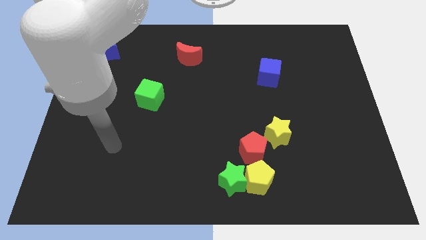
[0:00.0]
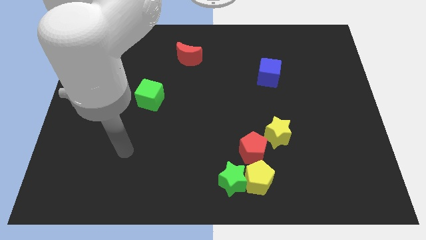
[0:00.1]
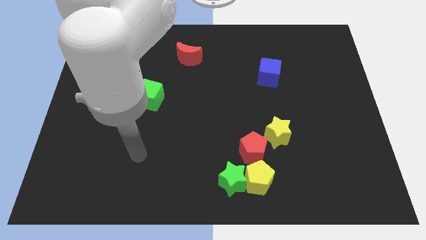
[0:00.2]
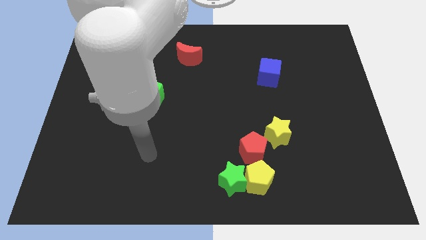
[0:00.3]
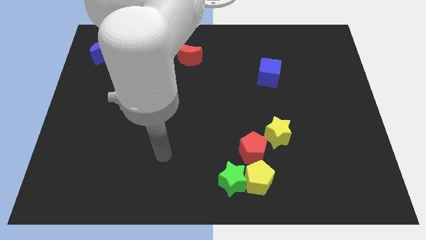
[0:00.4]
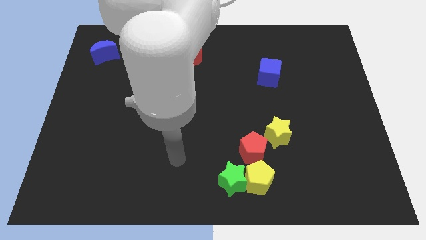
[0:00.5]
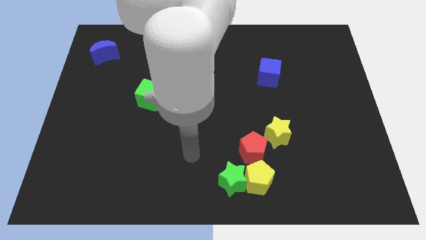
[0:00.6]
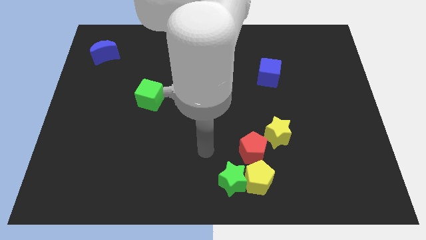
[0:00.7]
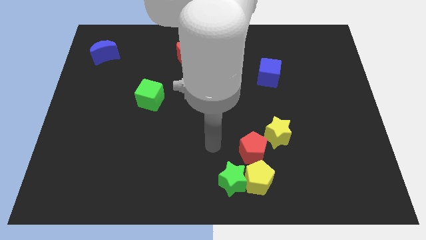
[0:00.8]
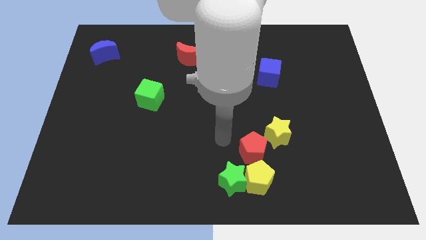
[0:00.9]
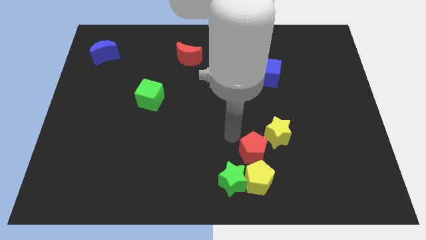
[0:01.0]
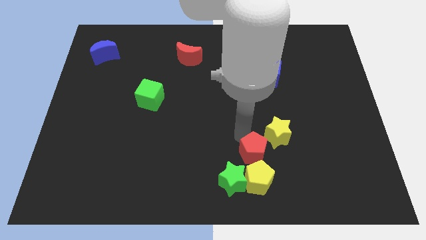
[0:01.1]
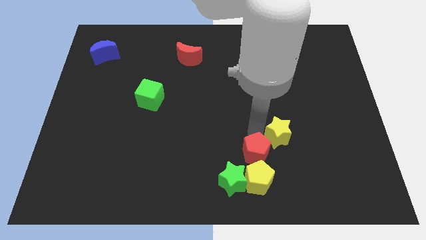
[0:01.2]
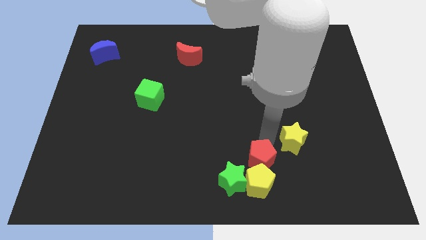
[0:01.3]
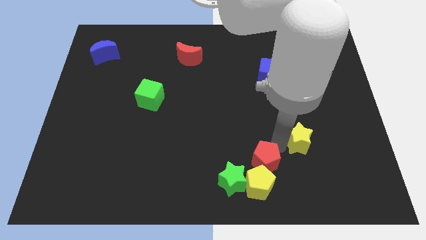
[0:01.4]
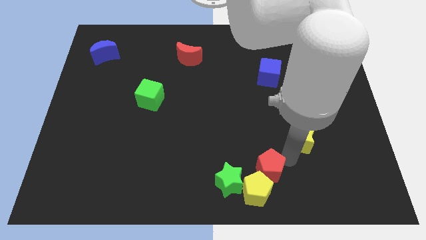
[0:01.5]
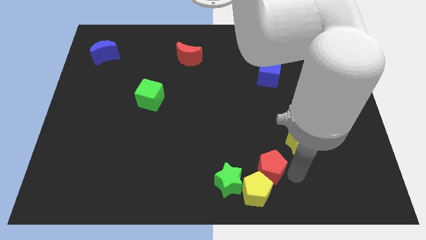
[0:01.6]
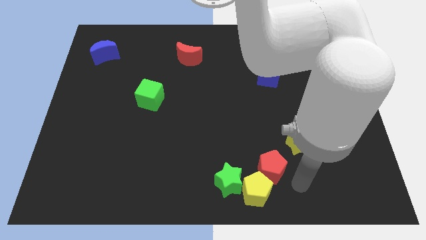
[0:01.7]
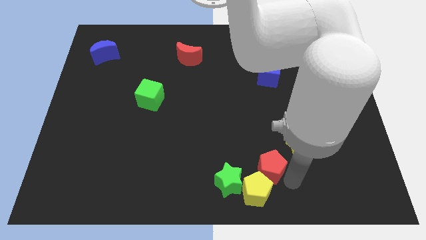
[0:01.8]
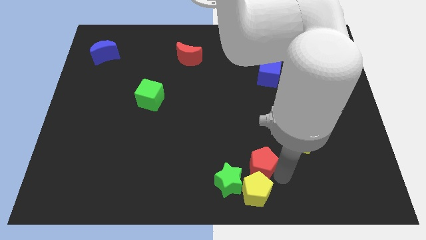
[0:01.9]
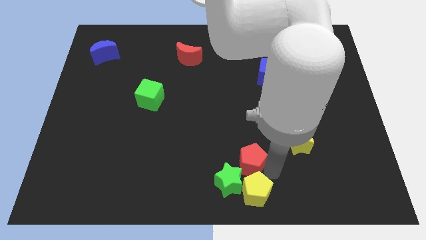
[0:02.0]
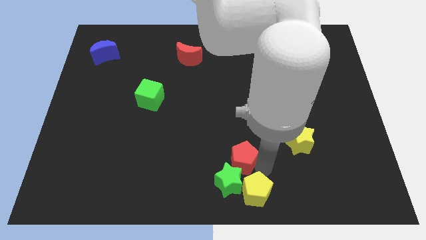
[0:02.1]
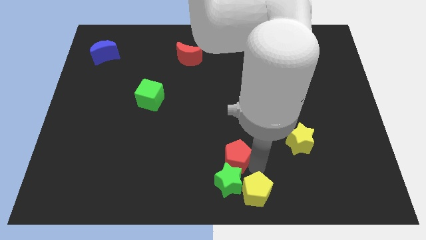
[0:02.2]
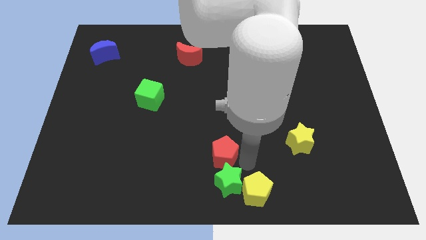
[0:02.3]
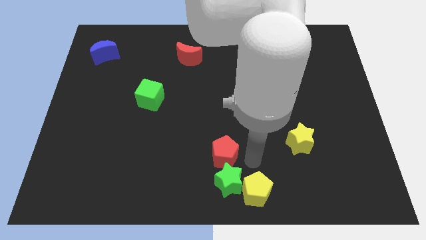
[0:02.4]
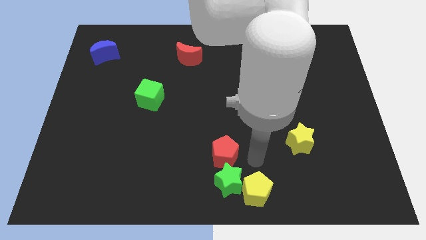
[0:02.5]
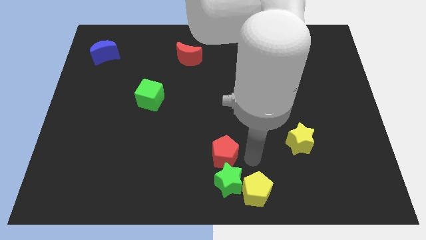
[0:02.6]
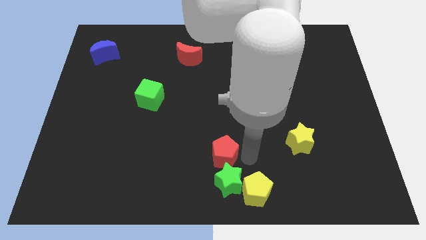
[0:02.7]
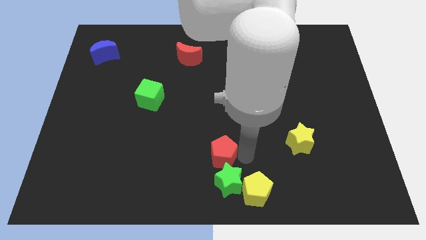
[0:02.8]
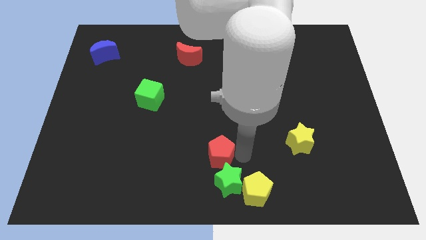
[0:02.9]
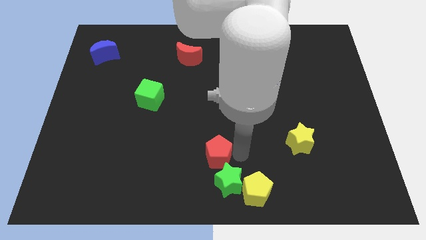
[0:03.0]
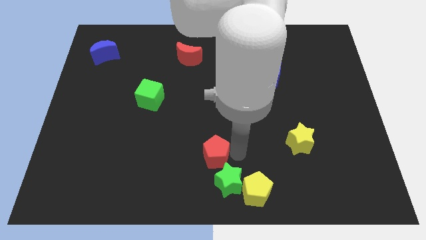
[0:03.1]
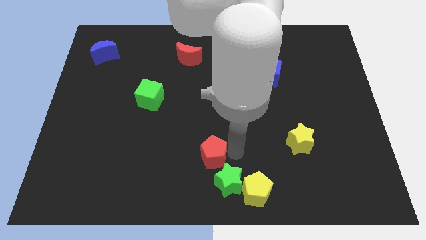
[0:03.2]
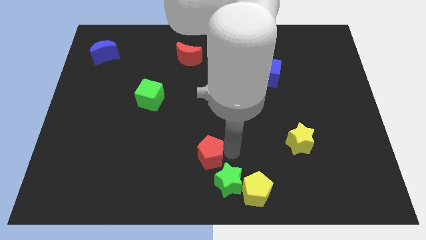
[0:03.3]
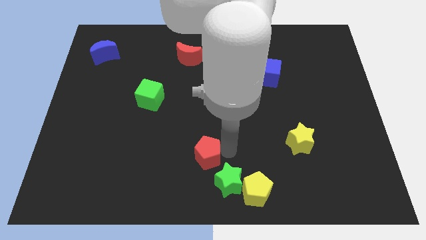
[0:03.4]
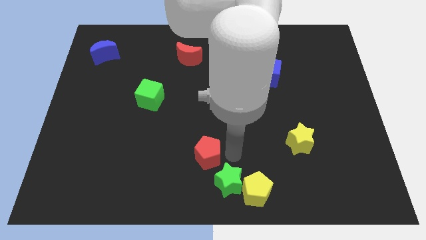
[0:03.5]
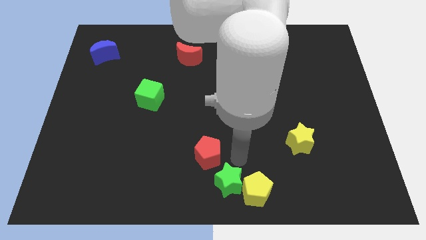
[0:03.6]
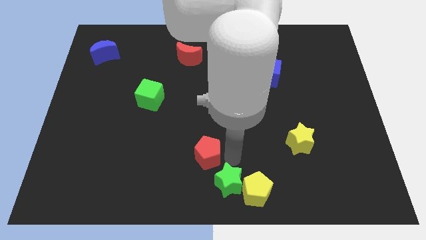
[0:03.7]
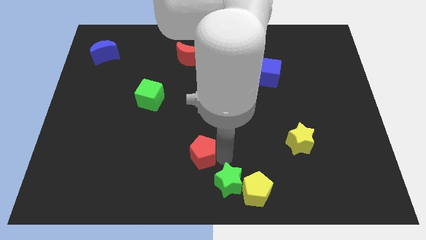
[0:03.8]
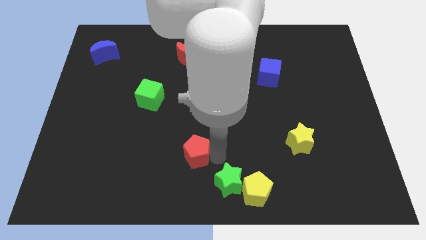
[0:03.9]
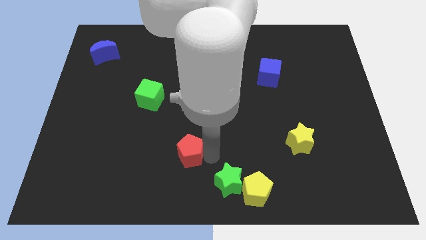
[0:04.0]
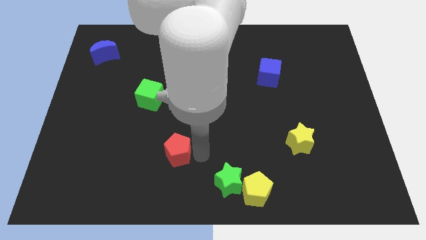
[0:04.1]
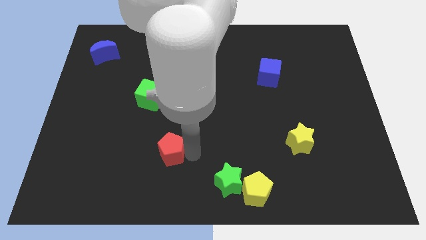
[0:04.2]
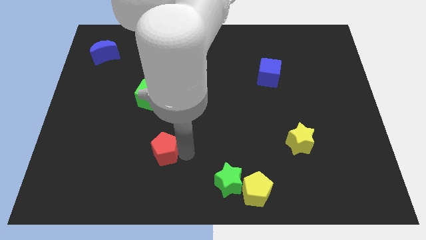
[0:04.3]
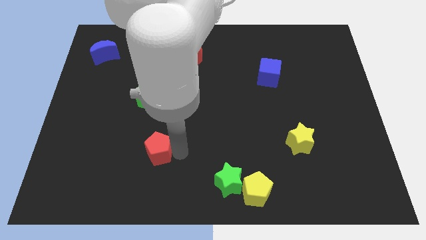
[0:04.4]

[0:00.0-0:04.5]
slide the red pentagon to the left

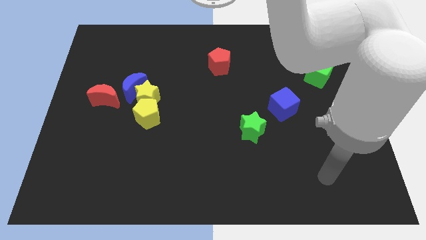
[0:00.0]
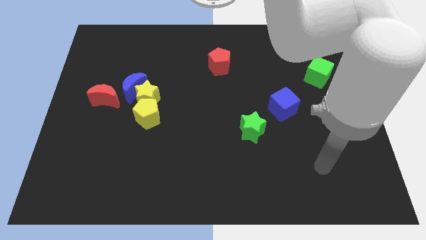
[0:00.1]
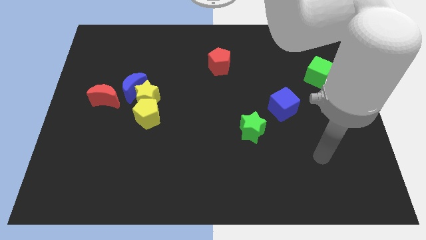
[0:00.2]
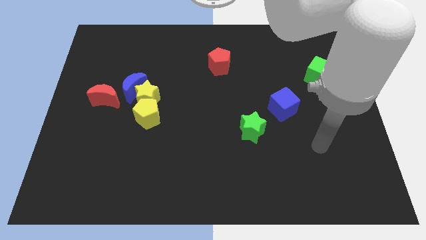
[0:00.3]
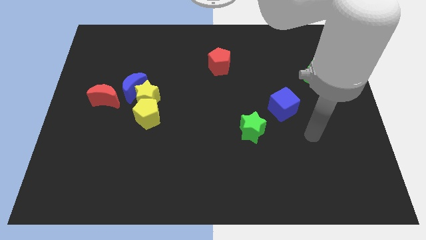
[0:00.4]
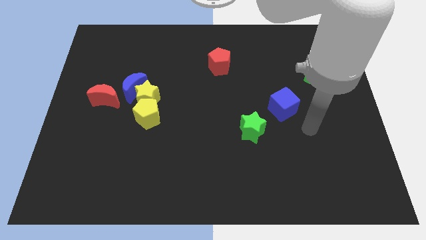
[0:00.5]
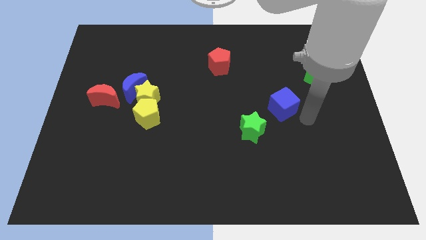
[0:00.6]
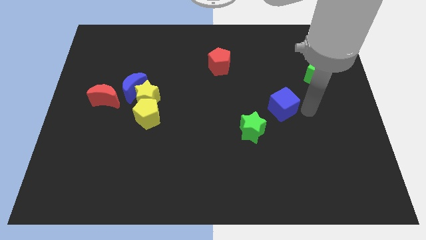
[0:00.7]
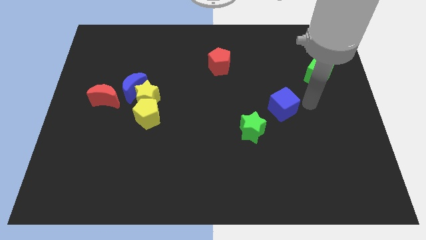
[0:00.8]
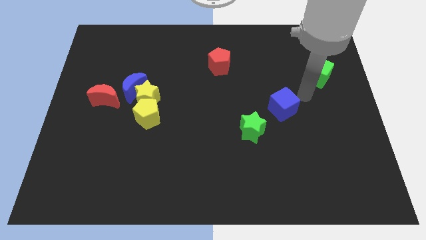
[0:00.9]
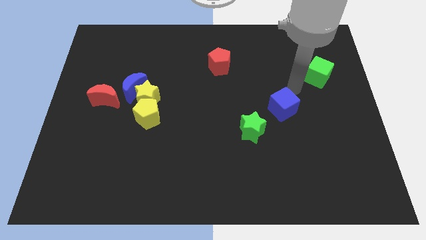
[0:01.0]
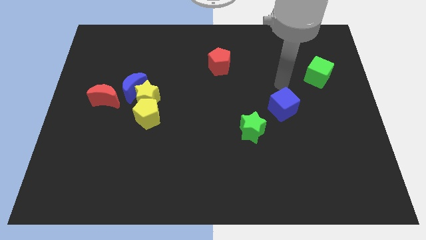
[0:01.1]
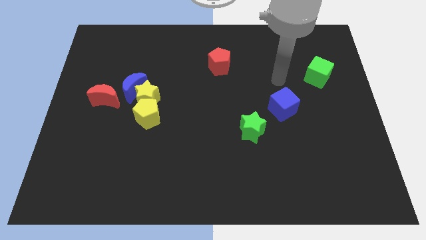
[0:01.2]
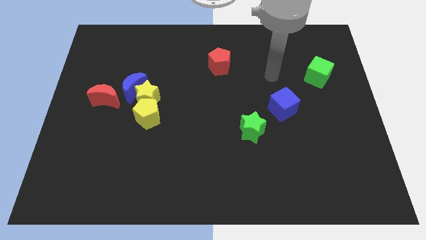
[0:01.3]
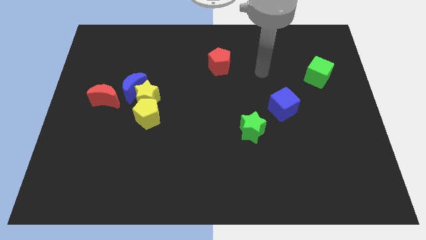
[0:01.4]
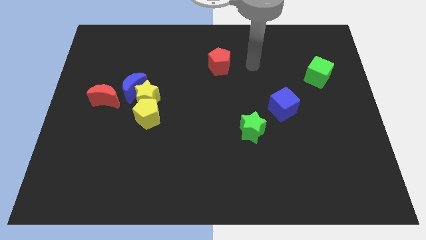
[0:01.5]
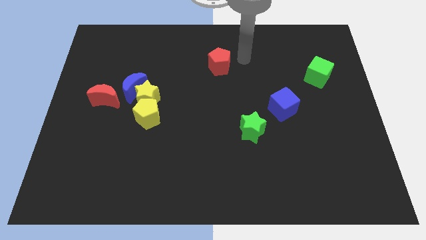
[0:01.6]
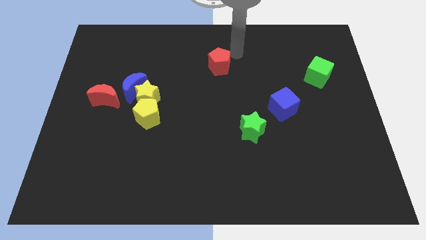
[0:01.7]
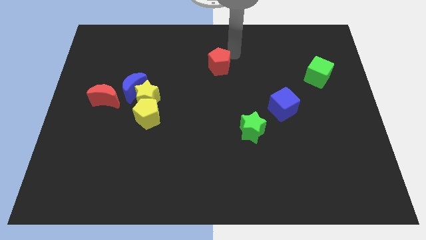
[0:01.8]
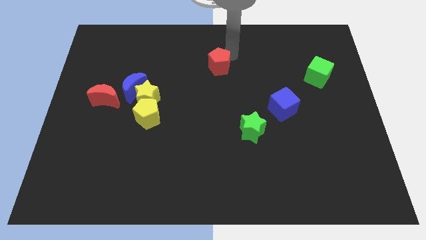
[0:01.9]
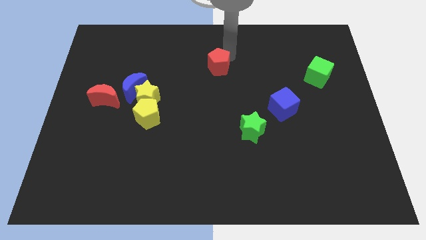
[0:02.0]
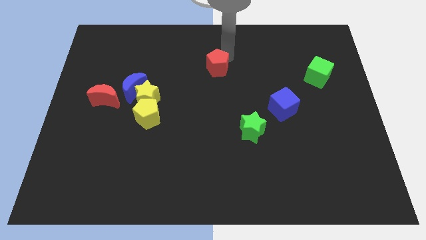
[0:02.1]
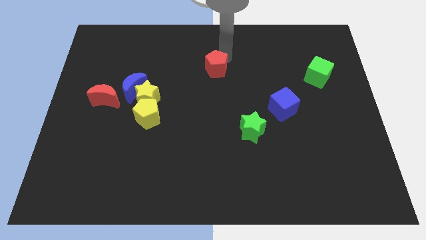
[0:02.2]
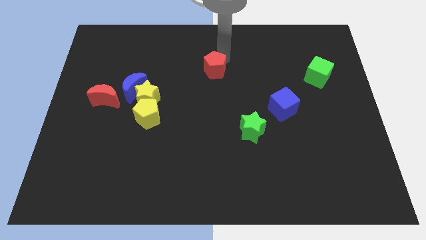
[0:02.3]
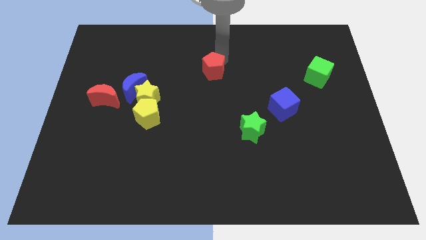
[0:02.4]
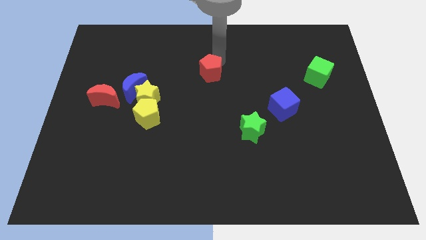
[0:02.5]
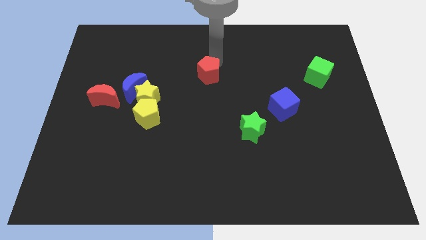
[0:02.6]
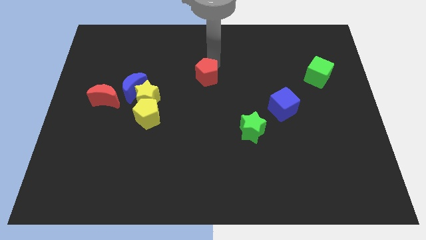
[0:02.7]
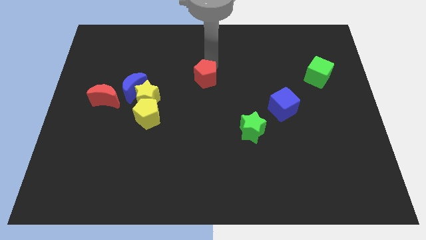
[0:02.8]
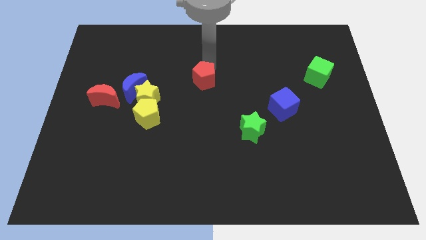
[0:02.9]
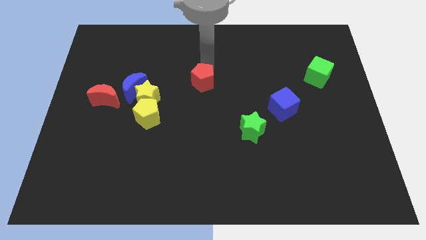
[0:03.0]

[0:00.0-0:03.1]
slightly slide the red pentagon diagonally downwards and left

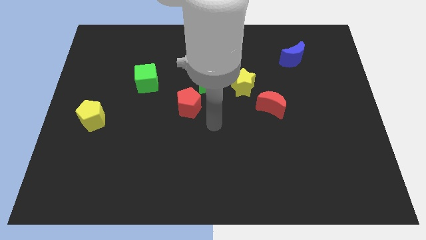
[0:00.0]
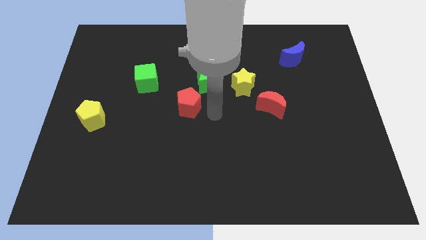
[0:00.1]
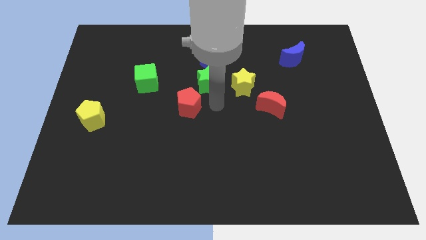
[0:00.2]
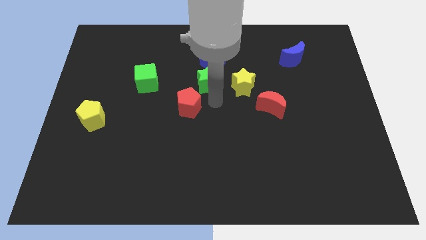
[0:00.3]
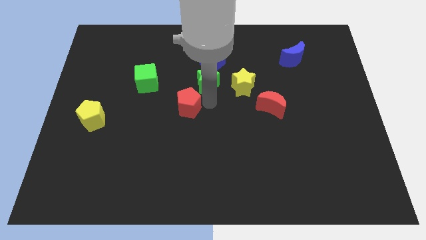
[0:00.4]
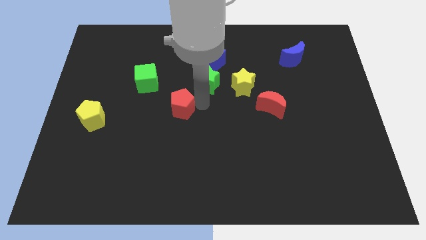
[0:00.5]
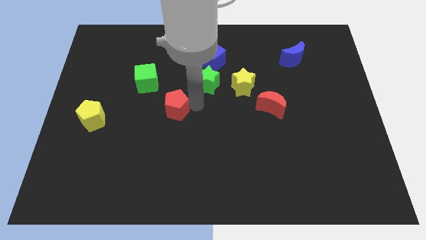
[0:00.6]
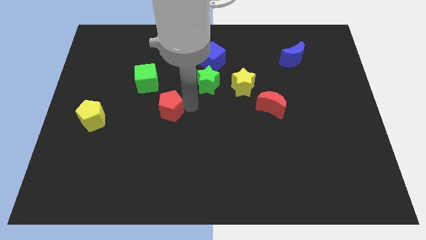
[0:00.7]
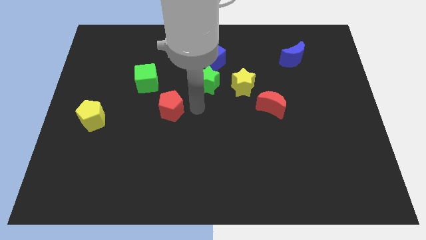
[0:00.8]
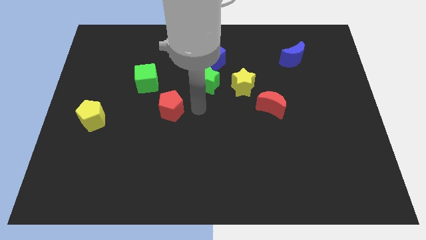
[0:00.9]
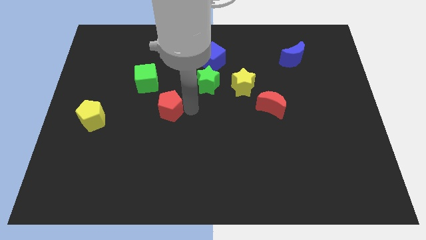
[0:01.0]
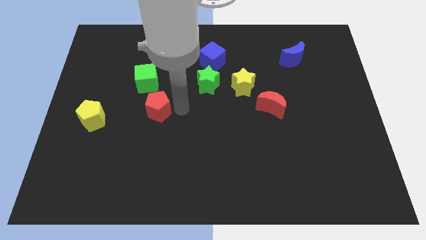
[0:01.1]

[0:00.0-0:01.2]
slide the red pentagon a bit left
